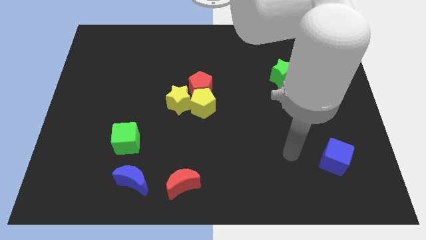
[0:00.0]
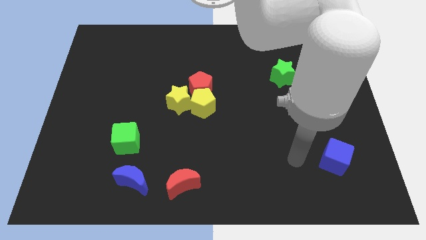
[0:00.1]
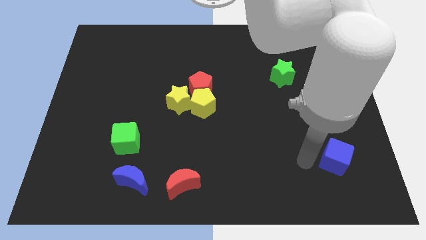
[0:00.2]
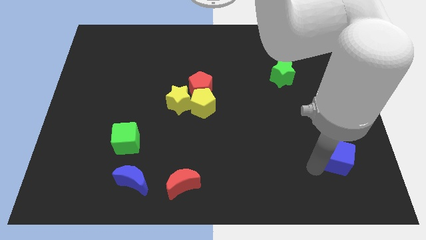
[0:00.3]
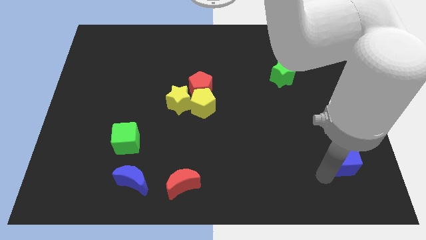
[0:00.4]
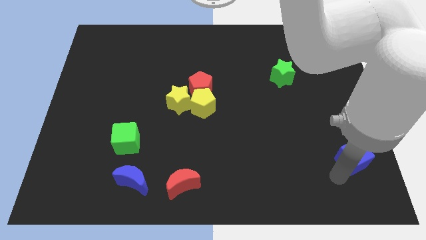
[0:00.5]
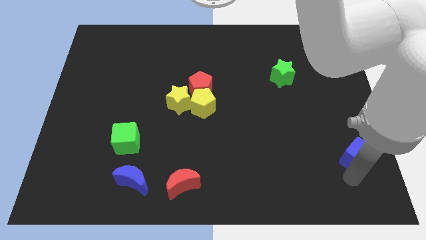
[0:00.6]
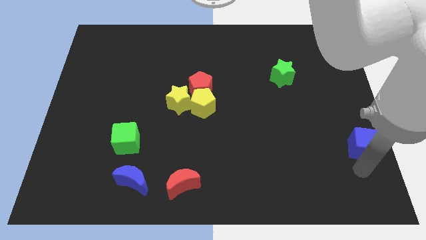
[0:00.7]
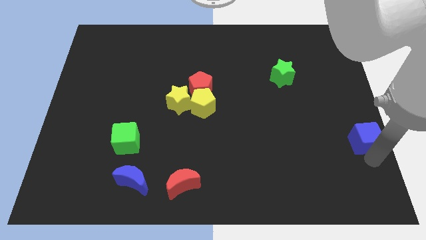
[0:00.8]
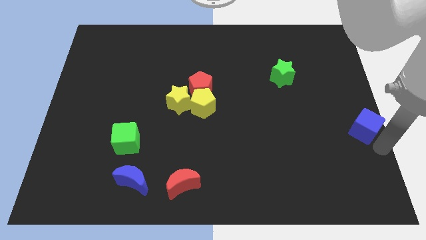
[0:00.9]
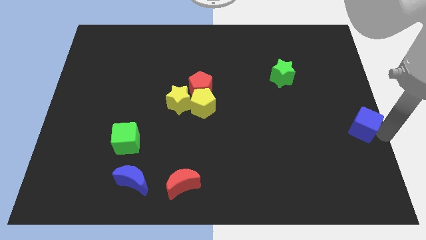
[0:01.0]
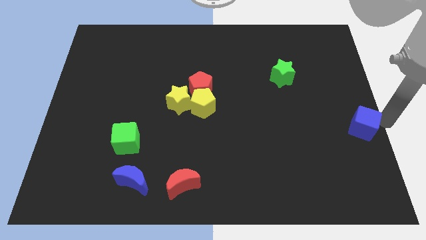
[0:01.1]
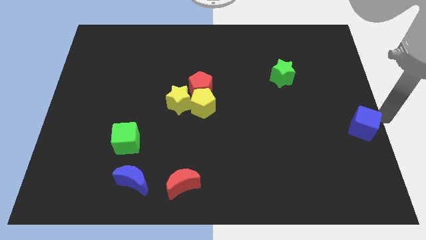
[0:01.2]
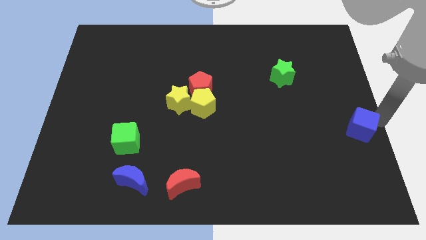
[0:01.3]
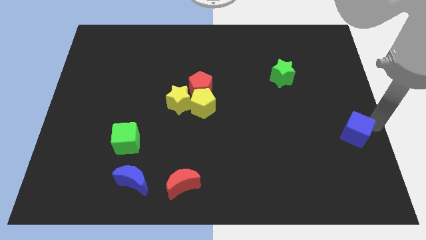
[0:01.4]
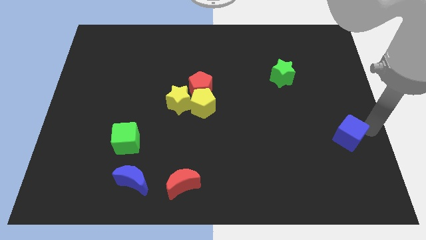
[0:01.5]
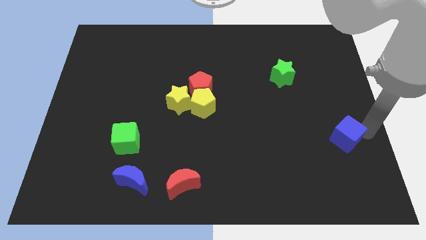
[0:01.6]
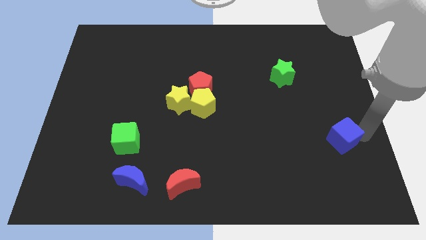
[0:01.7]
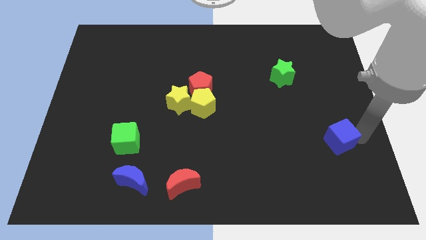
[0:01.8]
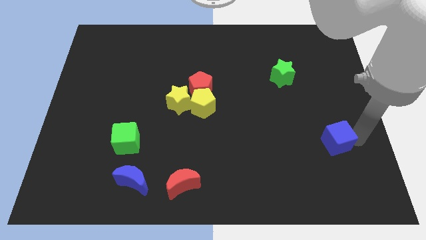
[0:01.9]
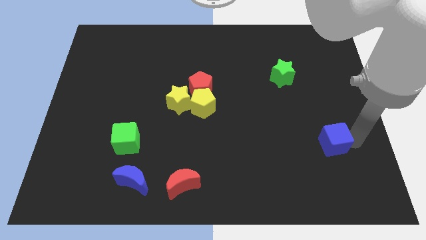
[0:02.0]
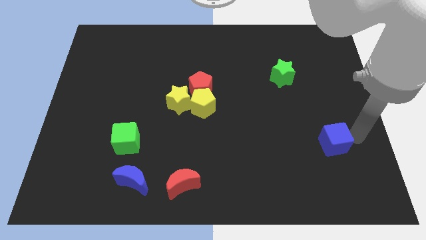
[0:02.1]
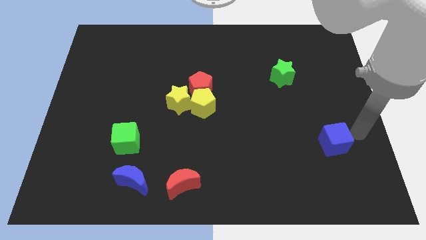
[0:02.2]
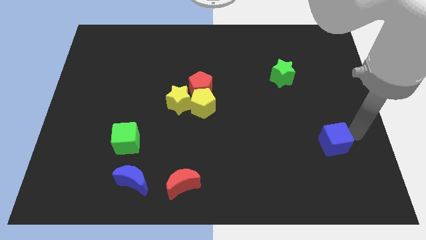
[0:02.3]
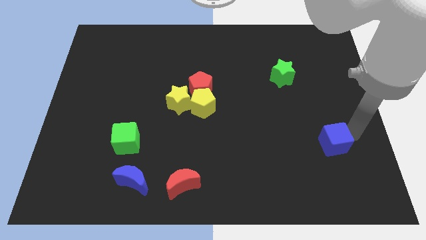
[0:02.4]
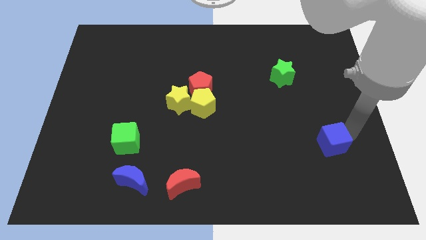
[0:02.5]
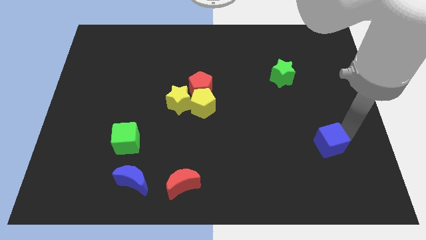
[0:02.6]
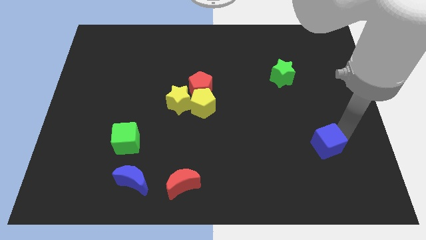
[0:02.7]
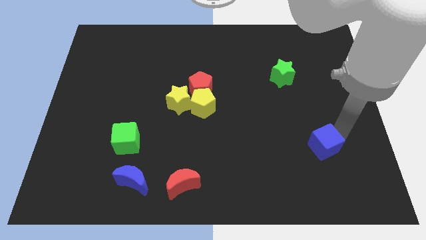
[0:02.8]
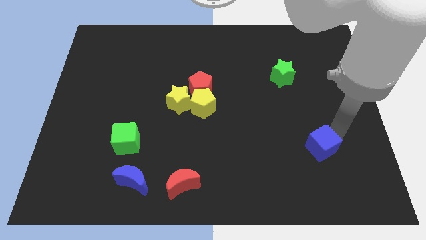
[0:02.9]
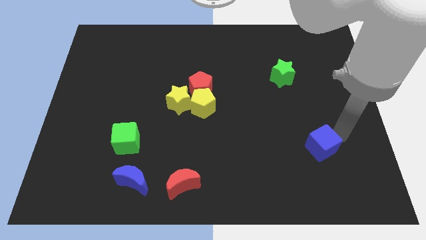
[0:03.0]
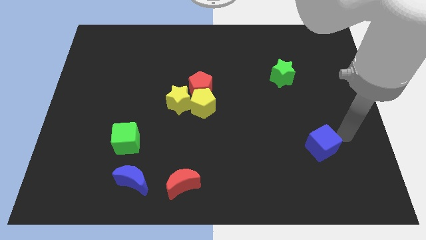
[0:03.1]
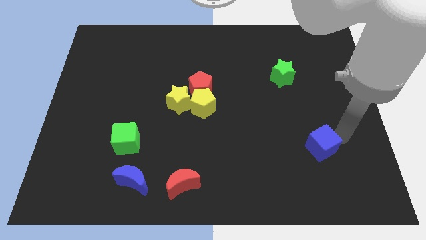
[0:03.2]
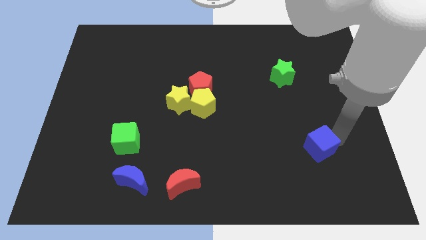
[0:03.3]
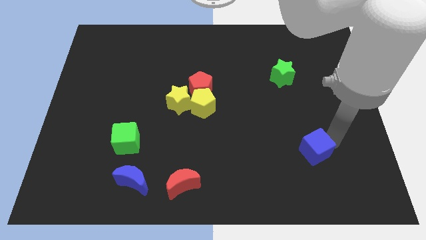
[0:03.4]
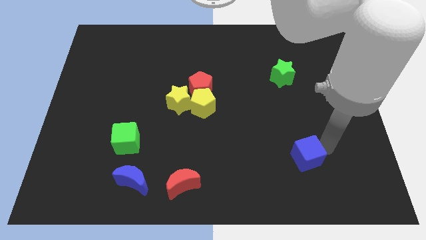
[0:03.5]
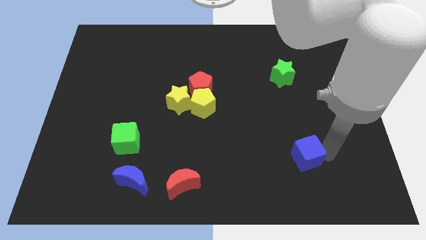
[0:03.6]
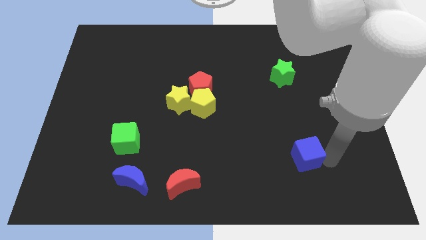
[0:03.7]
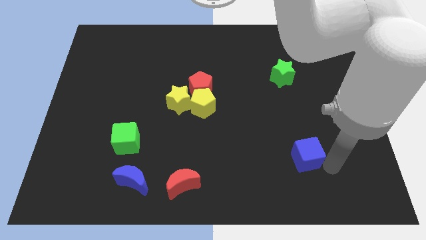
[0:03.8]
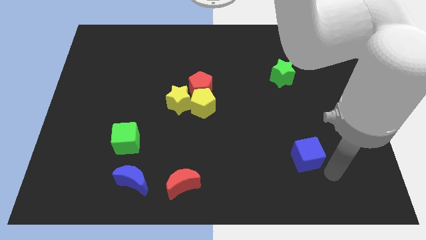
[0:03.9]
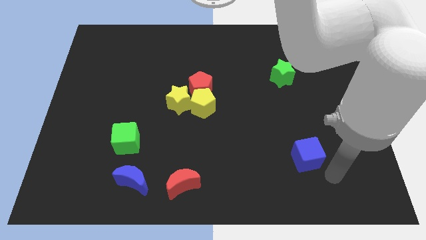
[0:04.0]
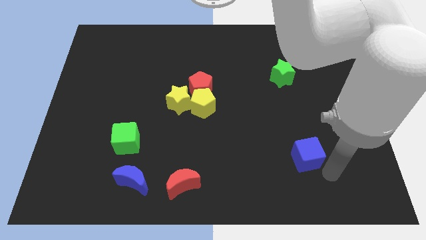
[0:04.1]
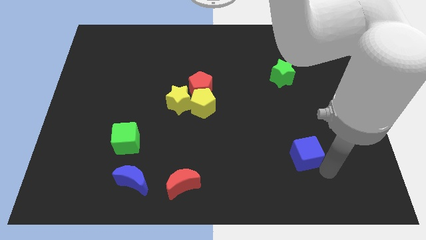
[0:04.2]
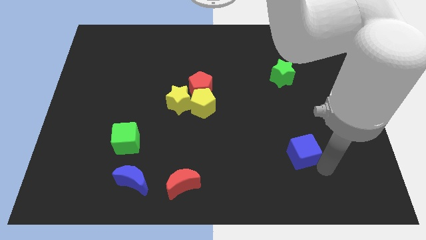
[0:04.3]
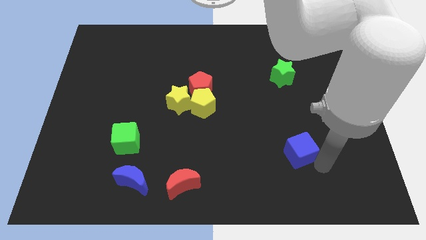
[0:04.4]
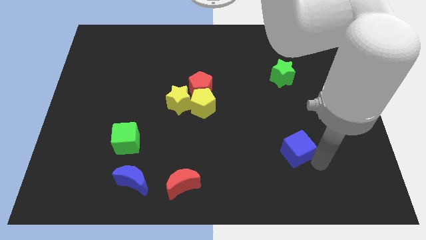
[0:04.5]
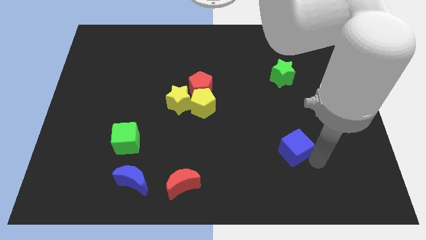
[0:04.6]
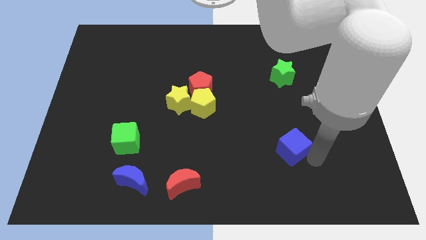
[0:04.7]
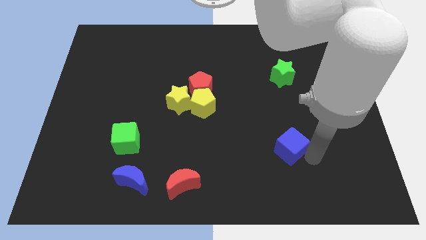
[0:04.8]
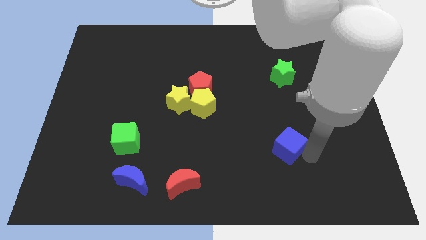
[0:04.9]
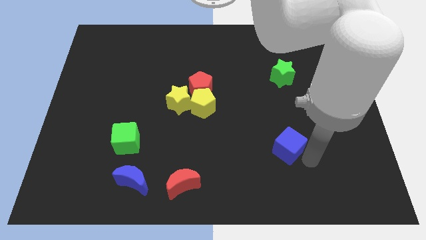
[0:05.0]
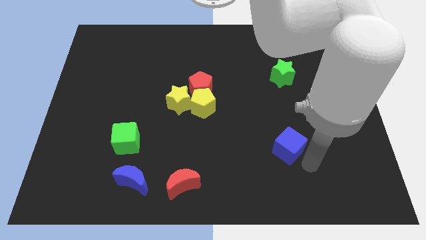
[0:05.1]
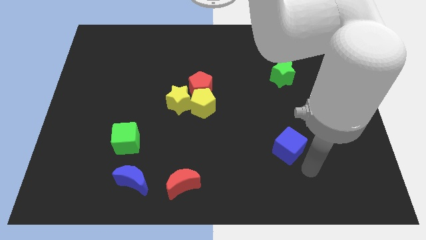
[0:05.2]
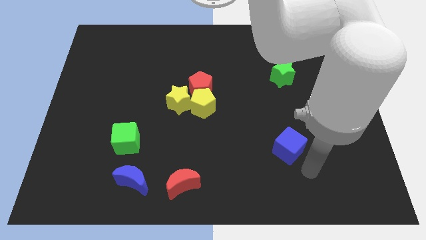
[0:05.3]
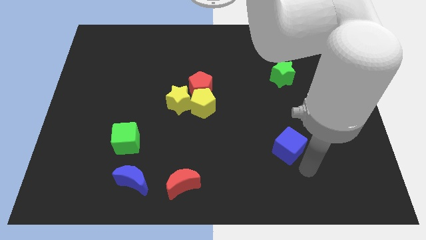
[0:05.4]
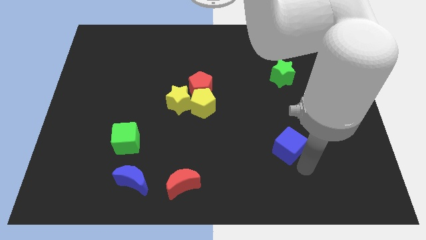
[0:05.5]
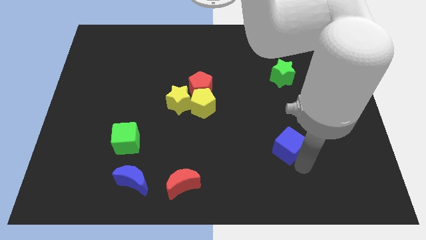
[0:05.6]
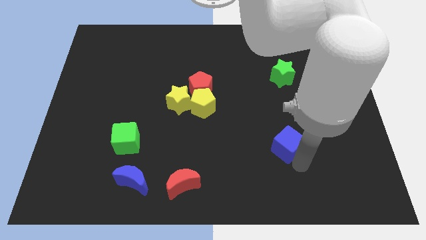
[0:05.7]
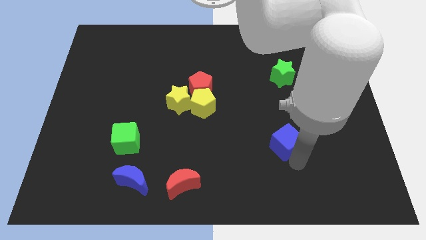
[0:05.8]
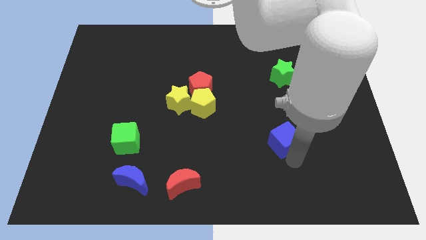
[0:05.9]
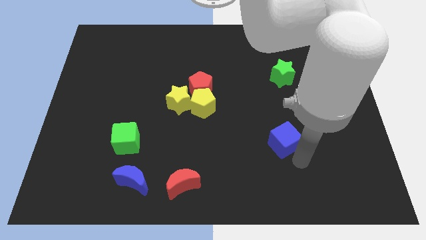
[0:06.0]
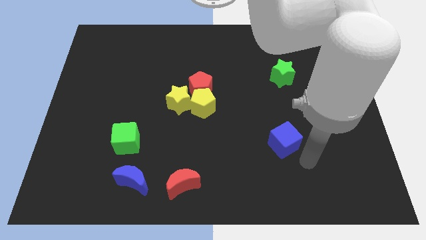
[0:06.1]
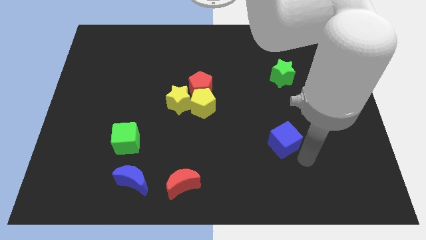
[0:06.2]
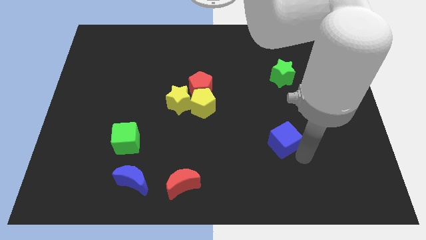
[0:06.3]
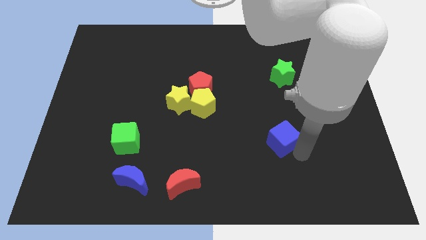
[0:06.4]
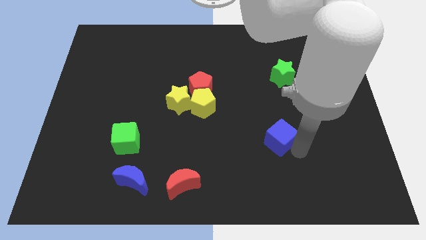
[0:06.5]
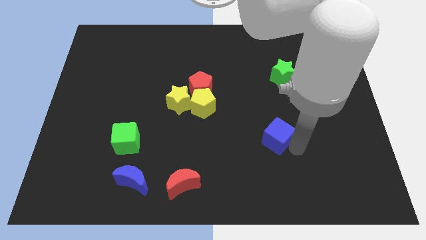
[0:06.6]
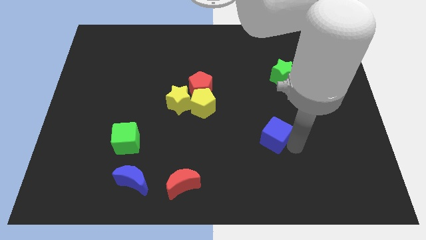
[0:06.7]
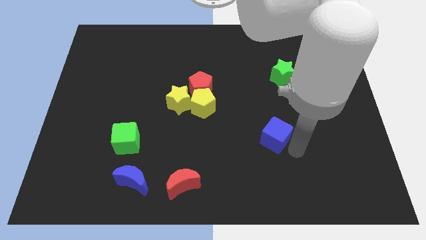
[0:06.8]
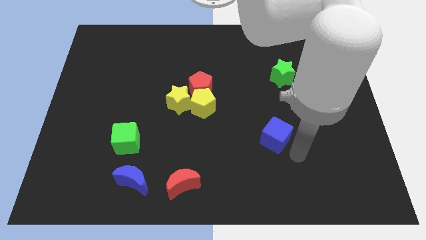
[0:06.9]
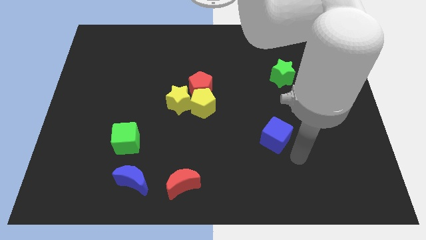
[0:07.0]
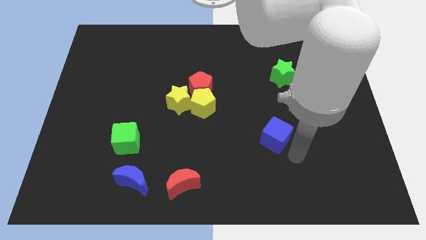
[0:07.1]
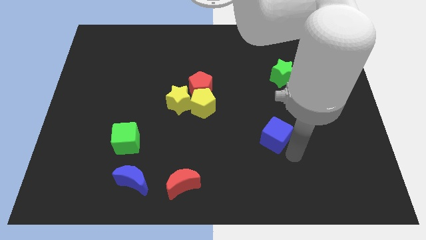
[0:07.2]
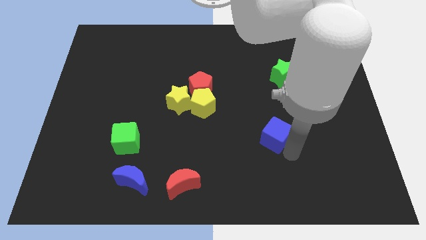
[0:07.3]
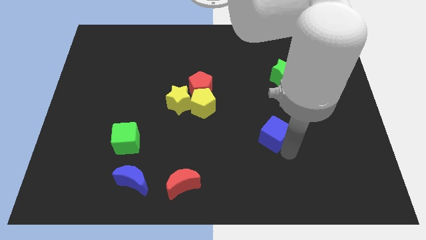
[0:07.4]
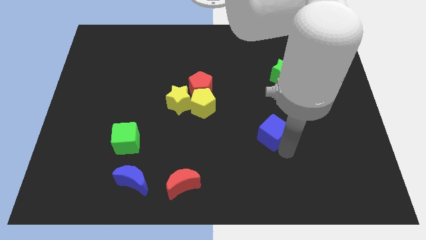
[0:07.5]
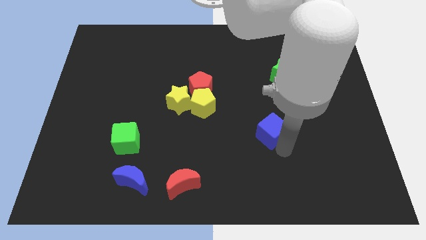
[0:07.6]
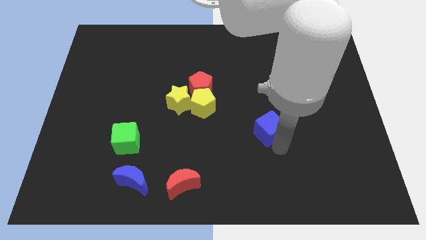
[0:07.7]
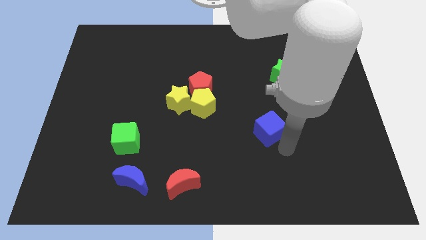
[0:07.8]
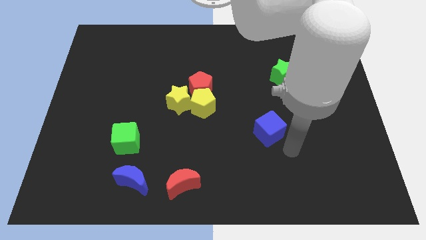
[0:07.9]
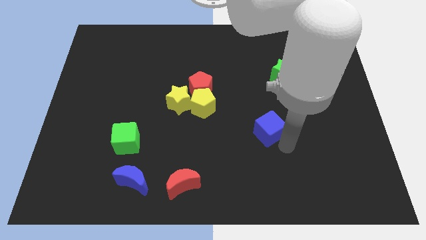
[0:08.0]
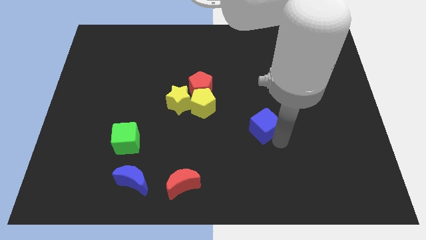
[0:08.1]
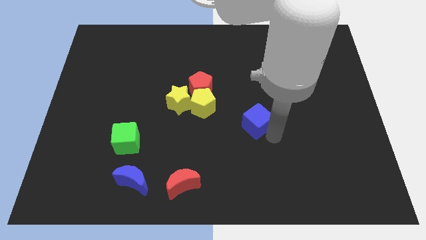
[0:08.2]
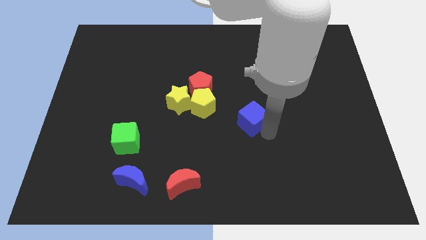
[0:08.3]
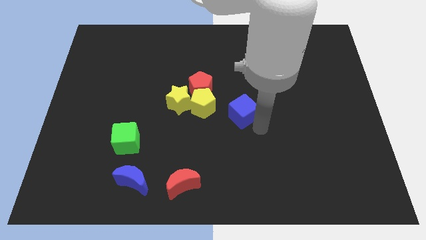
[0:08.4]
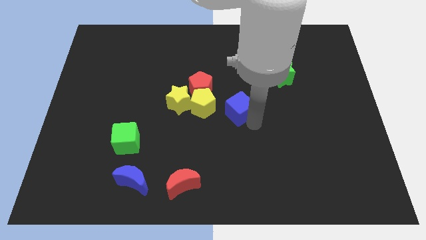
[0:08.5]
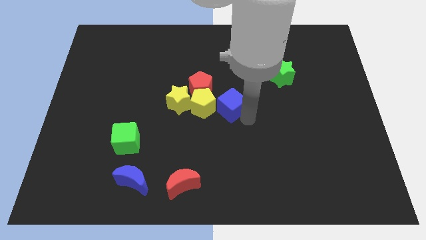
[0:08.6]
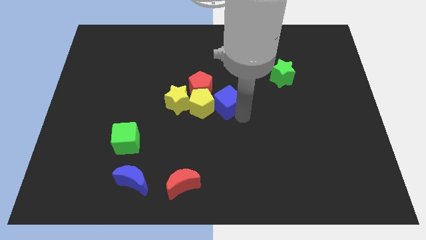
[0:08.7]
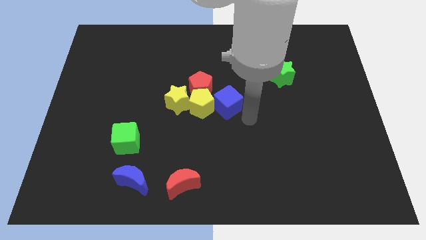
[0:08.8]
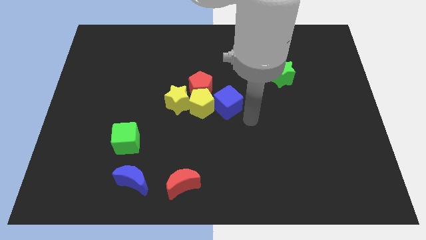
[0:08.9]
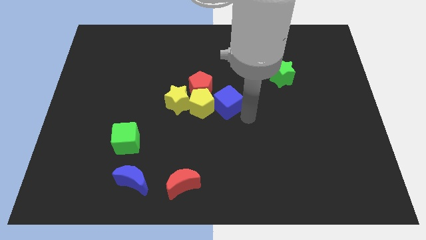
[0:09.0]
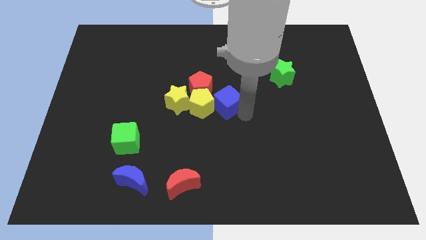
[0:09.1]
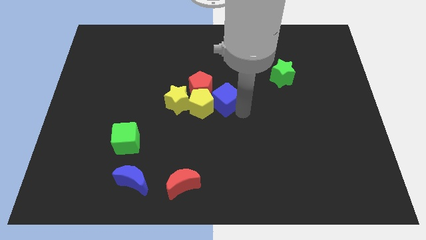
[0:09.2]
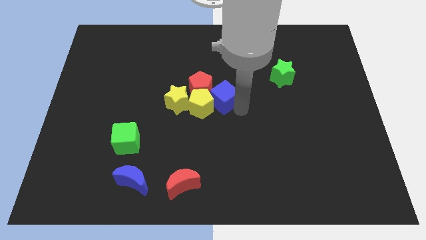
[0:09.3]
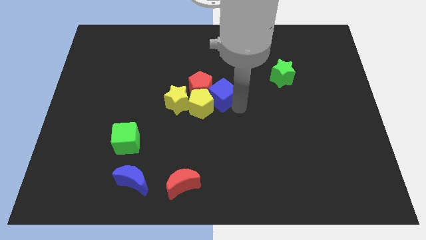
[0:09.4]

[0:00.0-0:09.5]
put the blue cube to the red pentagon
